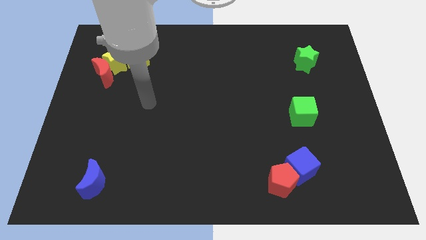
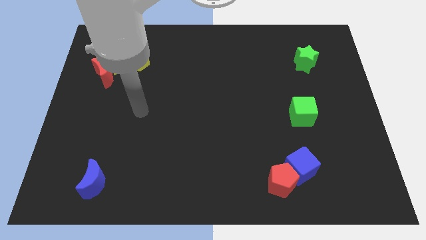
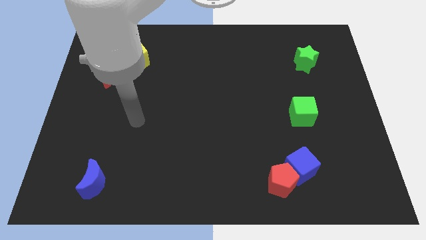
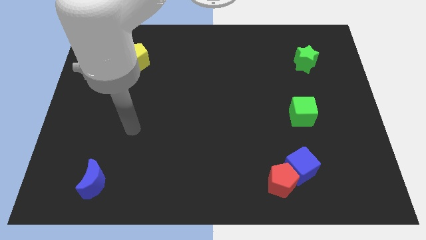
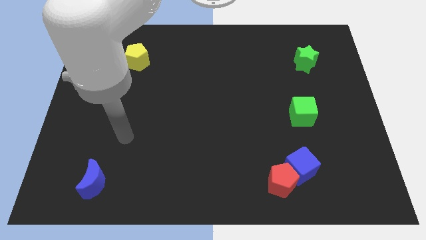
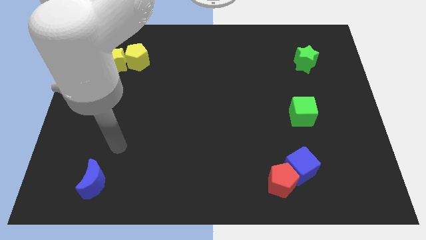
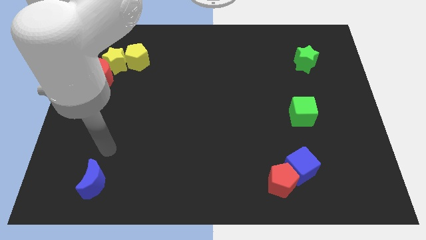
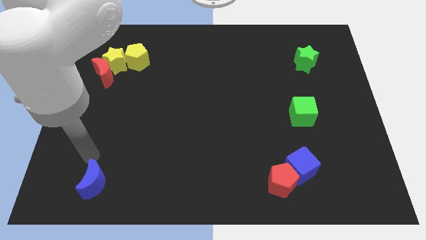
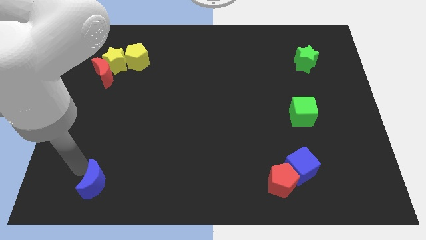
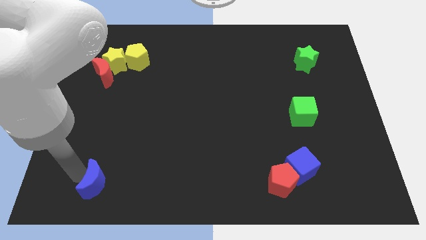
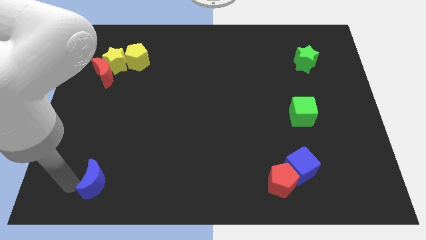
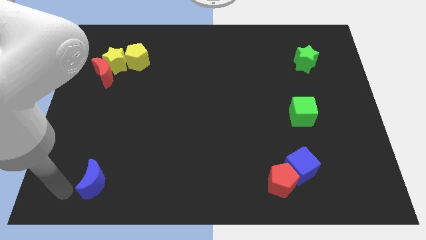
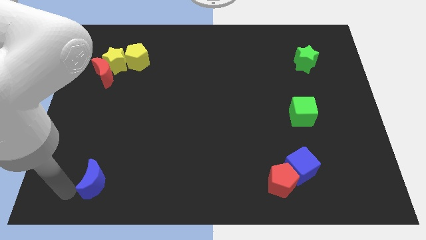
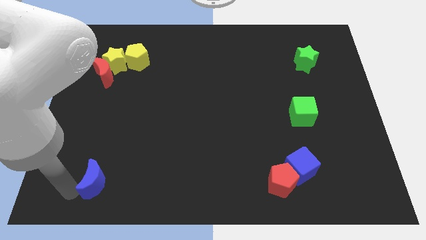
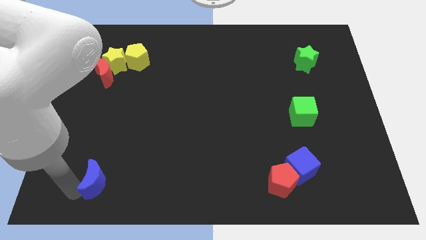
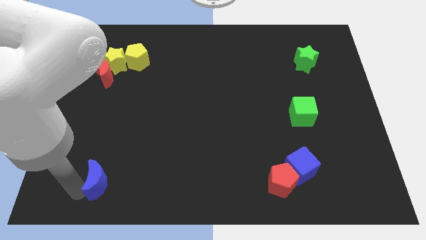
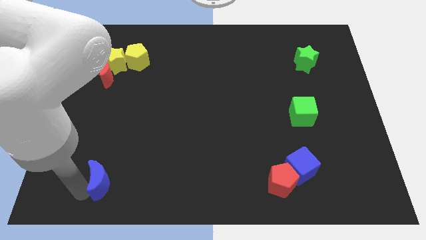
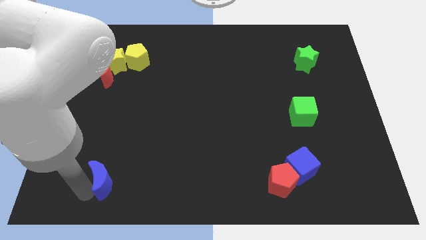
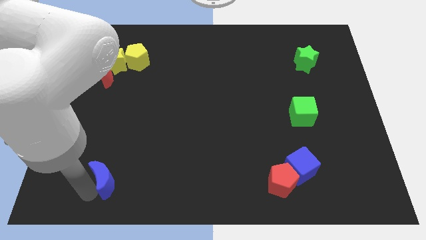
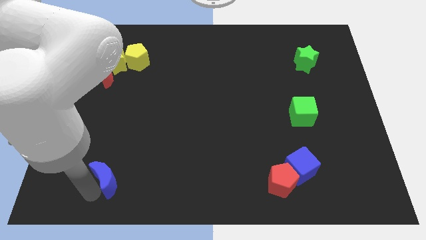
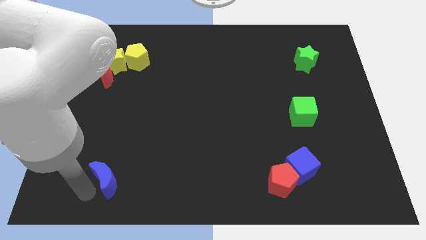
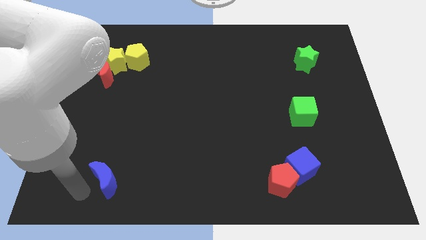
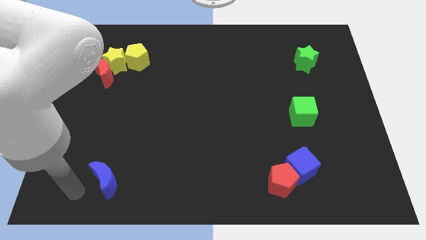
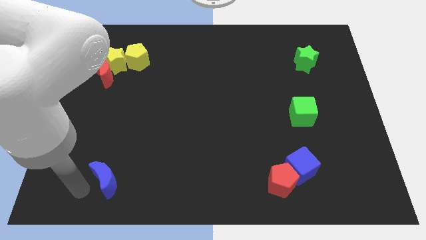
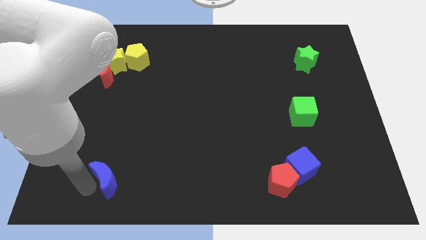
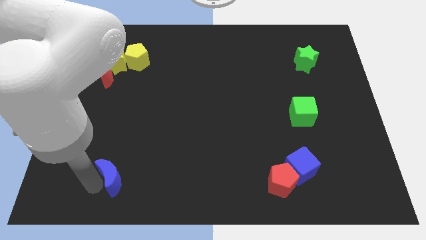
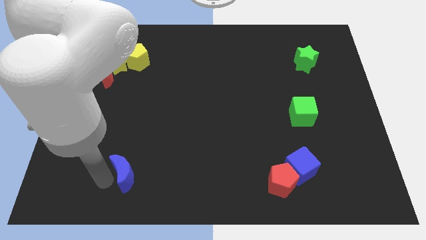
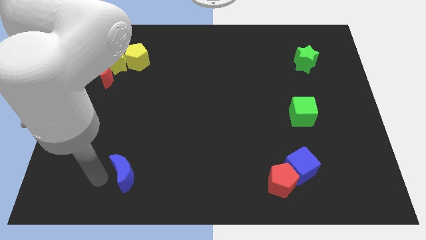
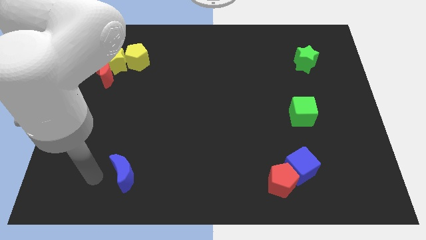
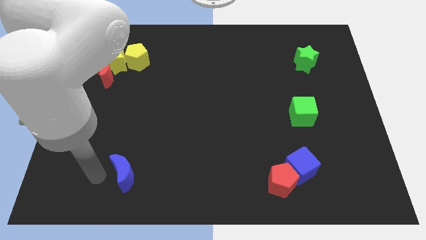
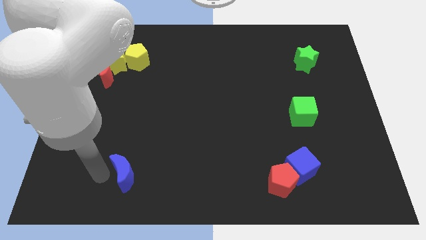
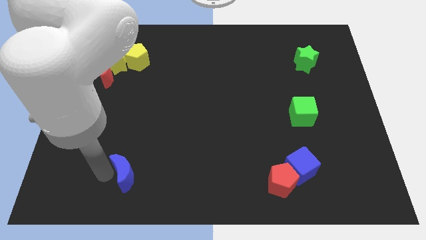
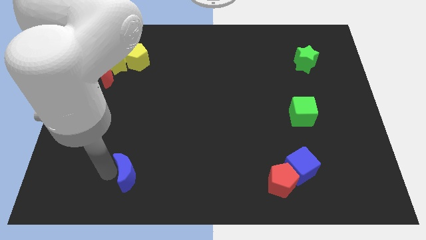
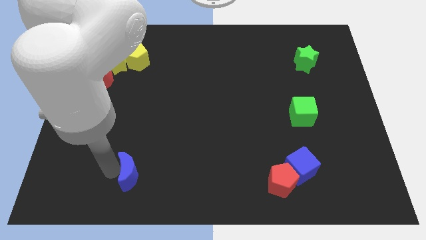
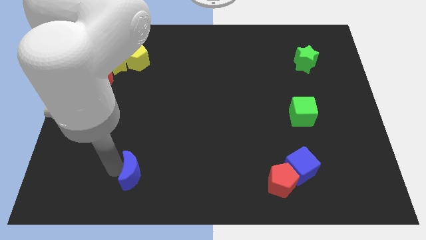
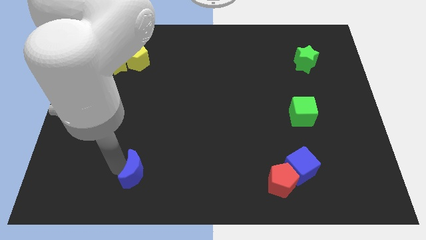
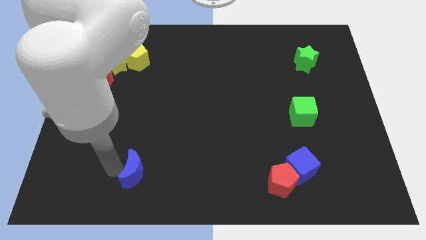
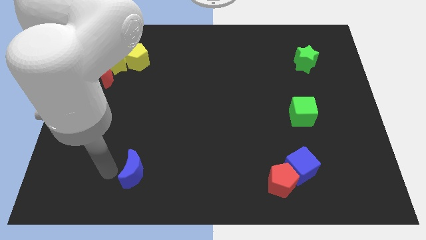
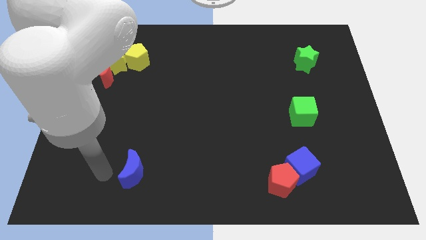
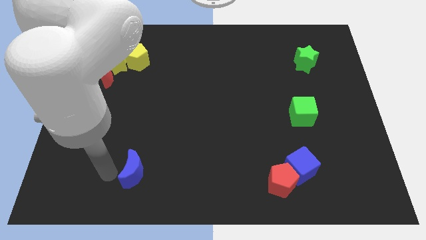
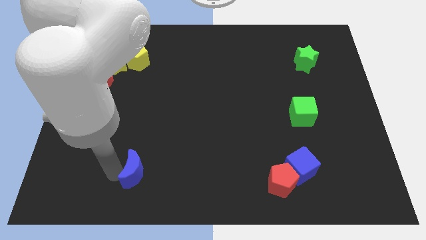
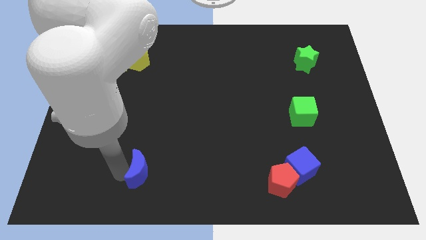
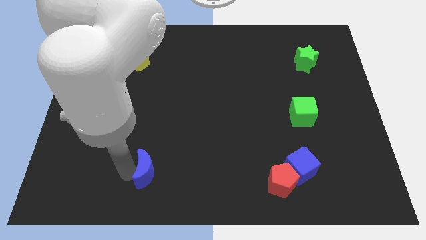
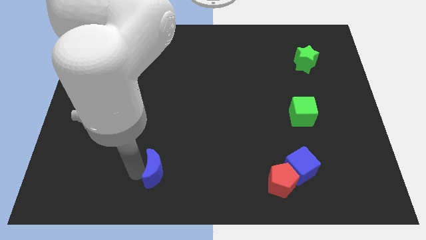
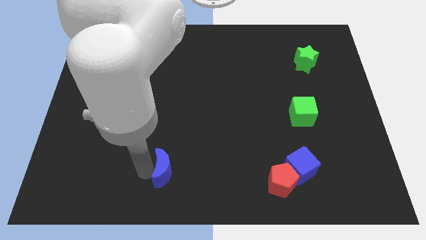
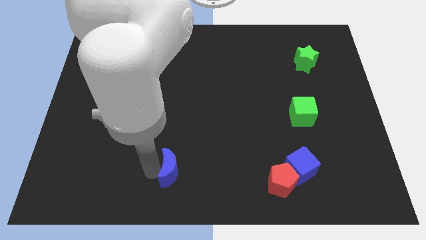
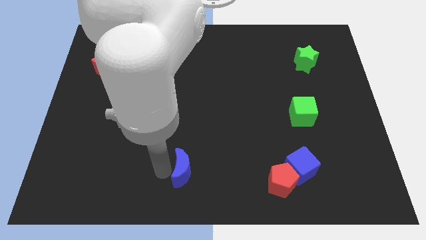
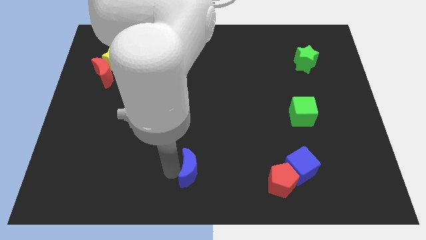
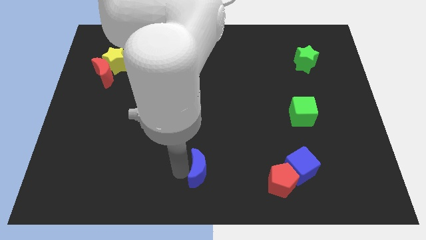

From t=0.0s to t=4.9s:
move the blue moon to the right

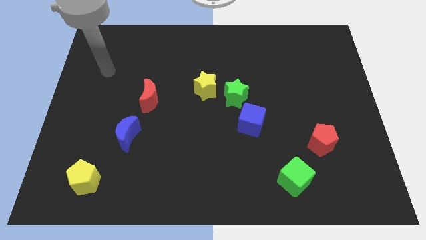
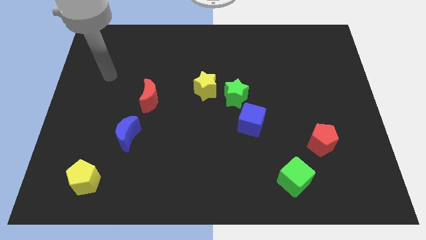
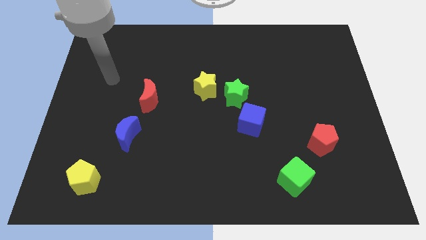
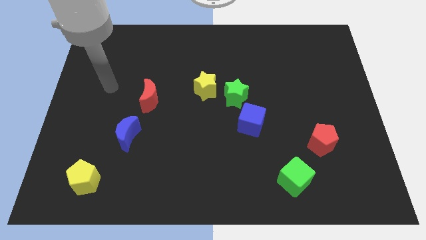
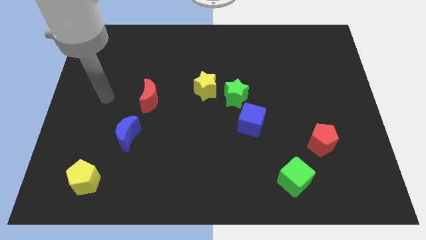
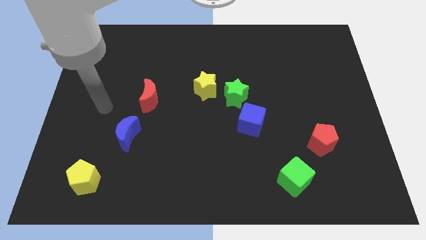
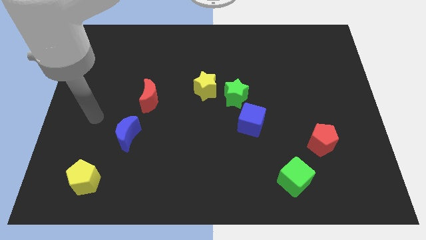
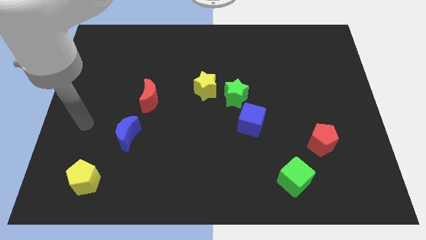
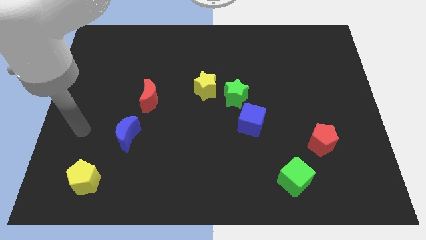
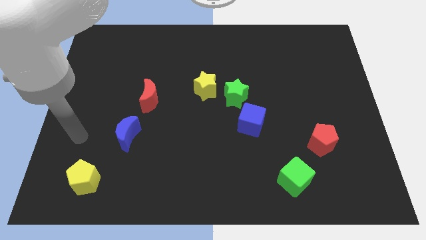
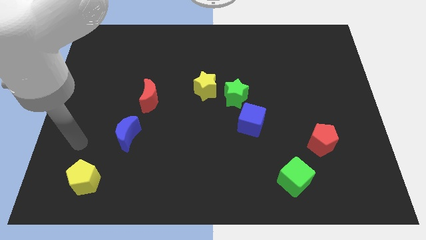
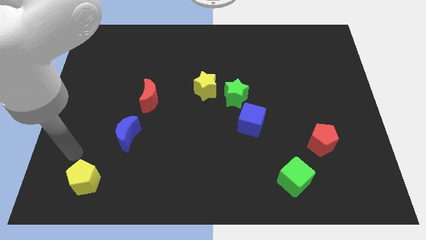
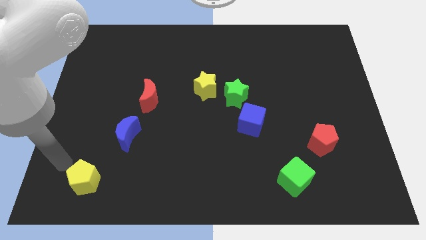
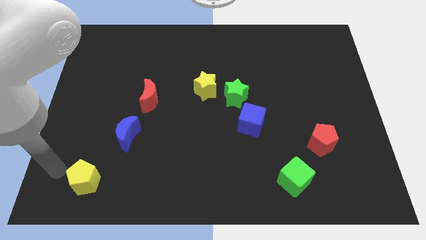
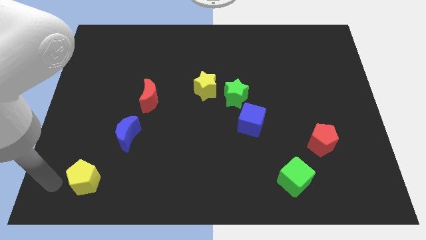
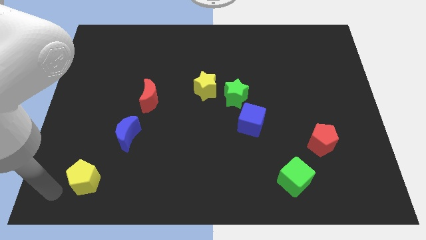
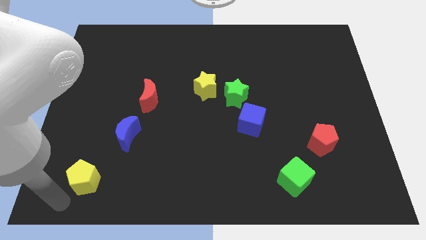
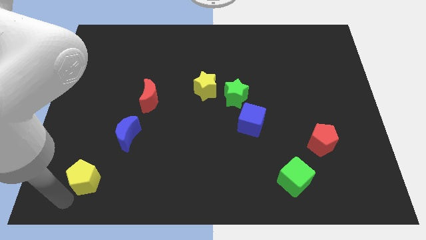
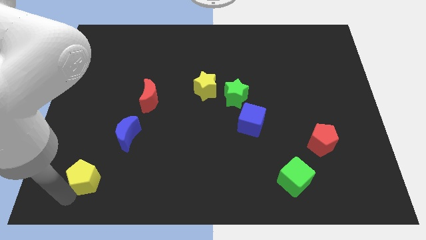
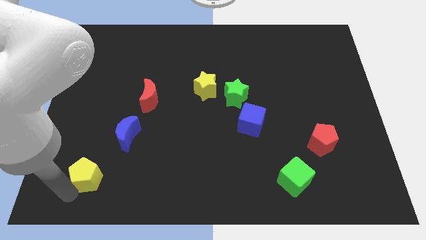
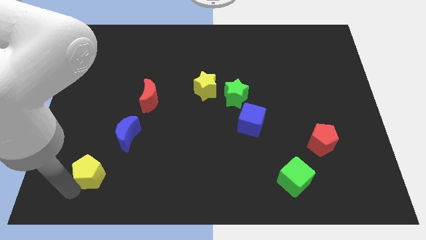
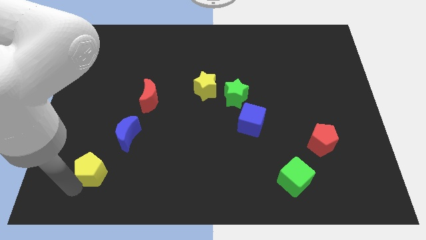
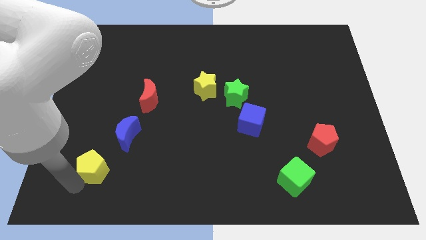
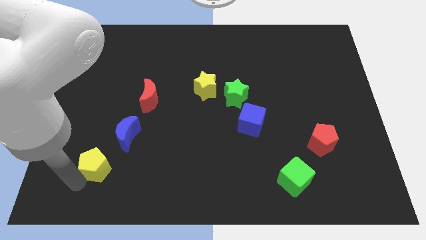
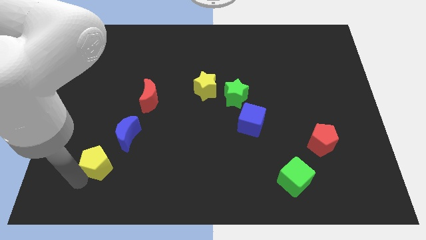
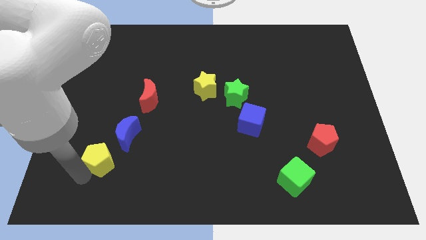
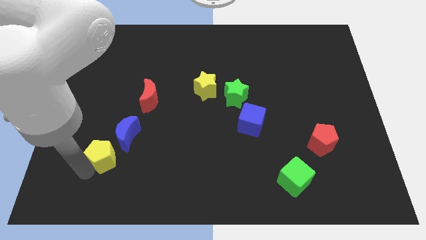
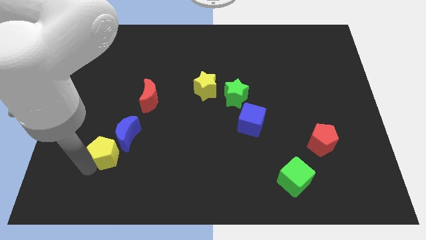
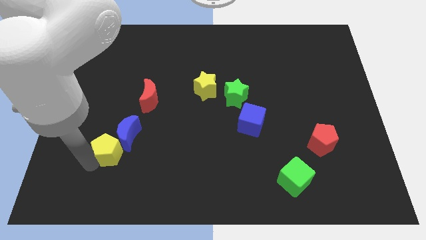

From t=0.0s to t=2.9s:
slide the yellow pentagon diagonally upwards and to the right slightly

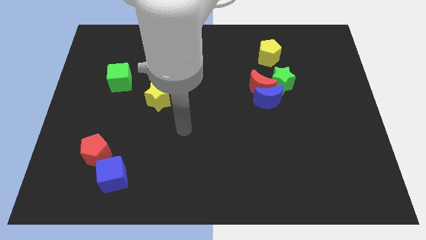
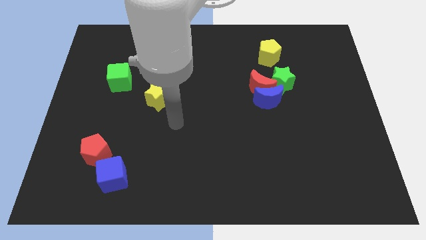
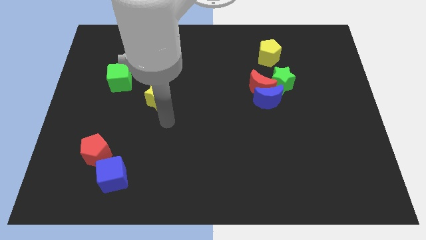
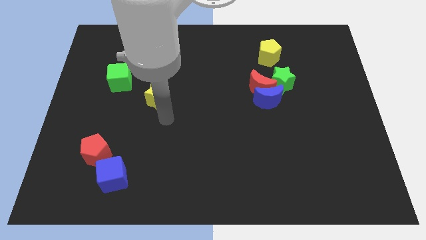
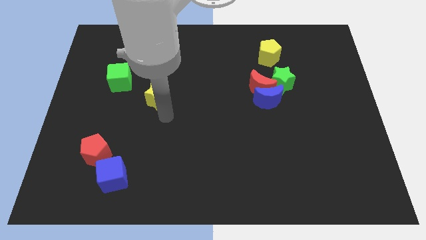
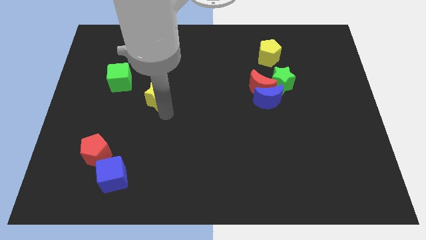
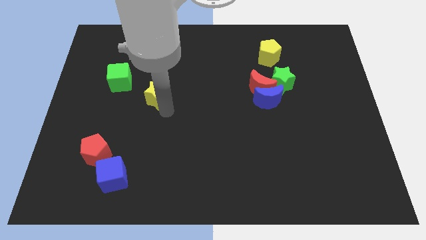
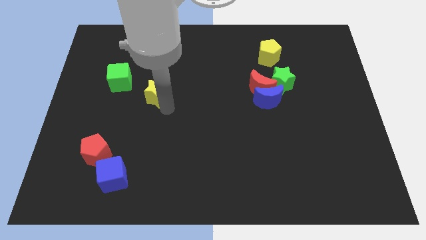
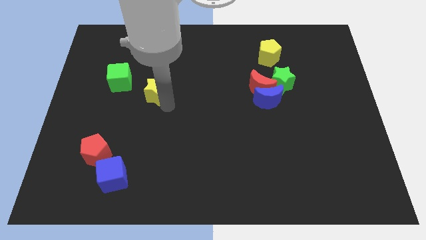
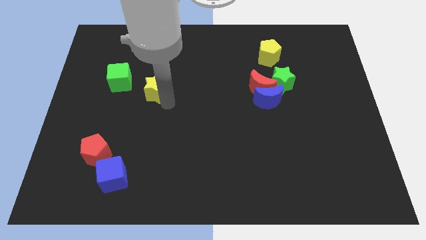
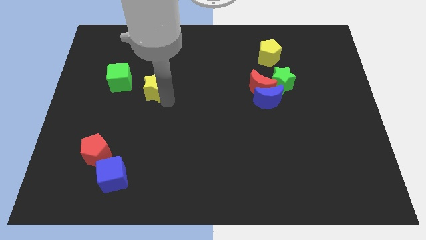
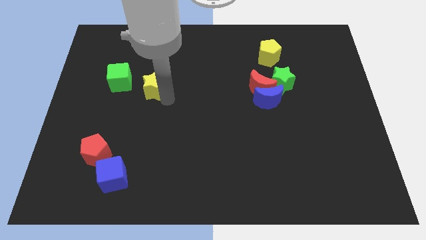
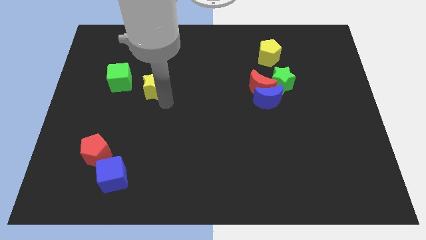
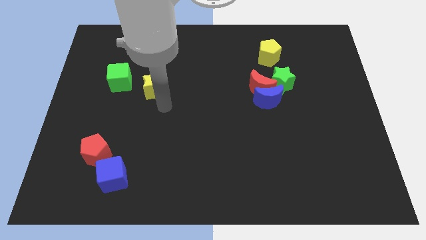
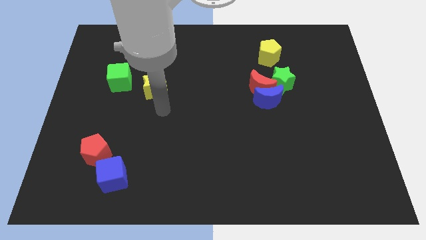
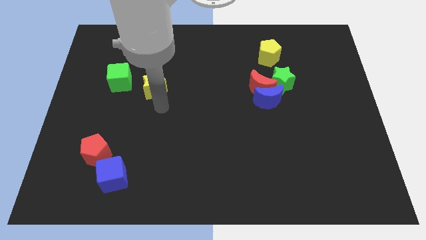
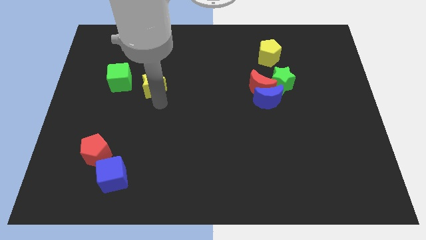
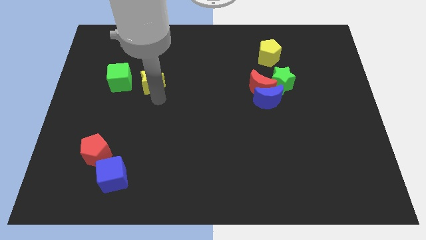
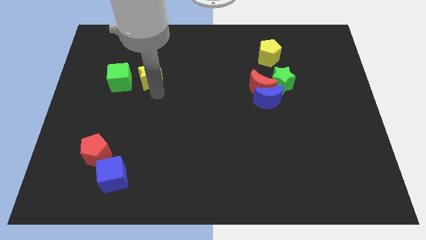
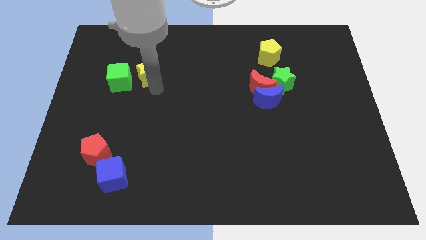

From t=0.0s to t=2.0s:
slightly push the yellow star diagonally up and to the left
